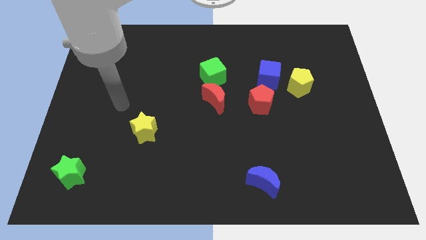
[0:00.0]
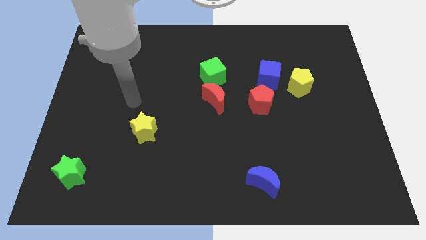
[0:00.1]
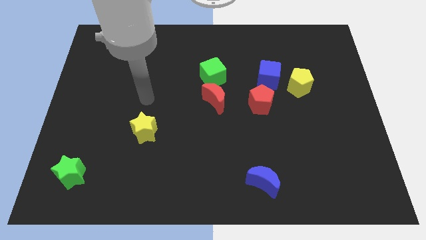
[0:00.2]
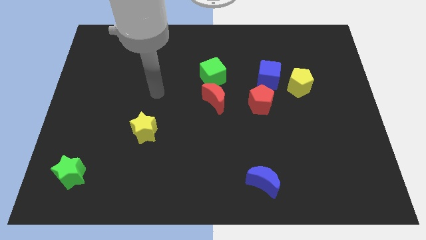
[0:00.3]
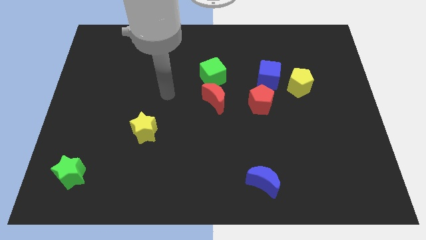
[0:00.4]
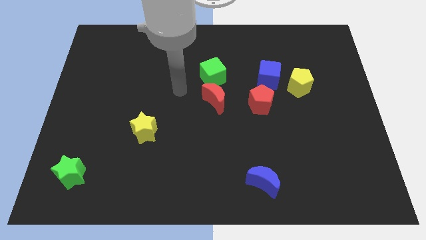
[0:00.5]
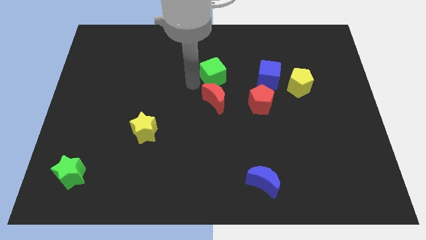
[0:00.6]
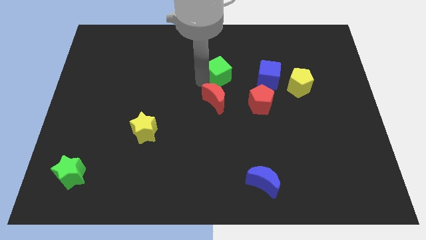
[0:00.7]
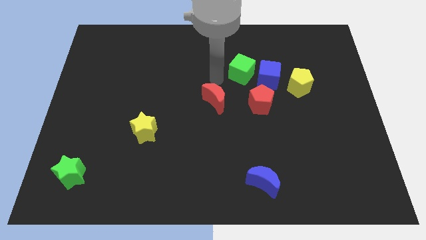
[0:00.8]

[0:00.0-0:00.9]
separate the red moon from the green cube

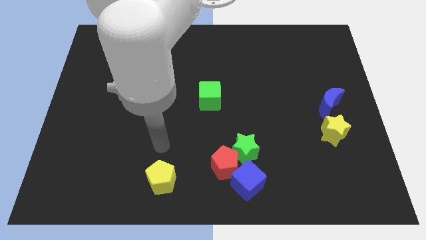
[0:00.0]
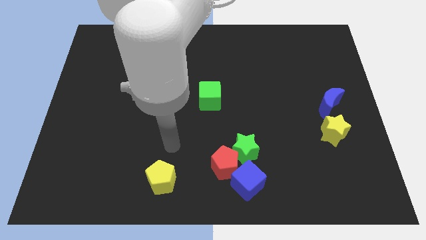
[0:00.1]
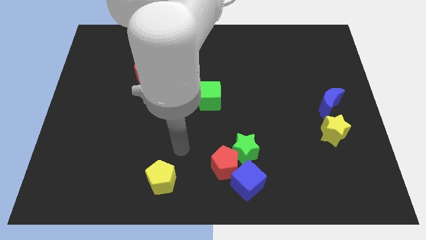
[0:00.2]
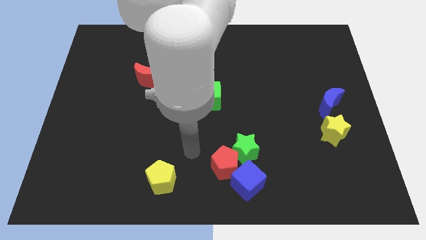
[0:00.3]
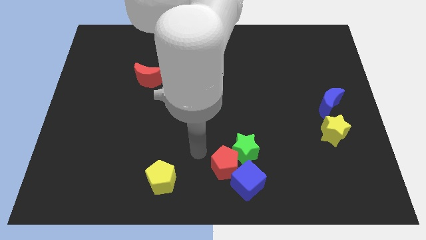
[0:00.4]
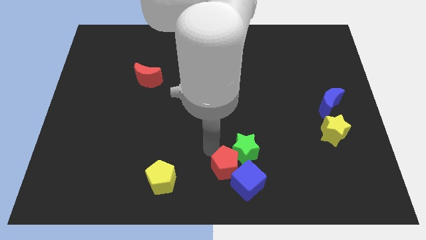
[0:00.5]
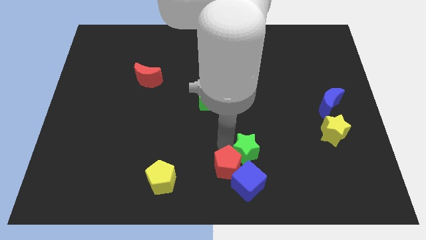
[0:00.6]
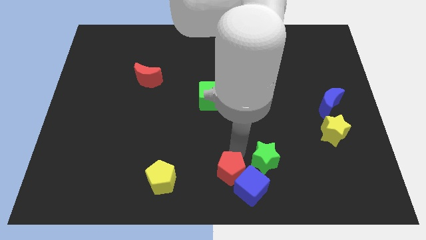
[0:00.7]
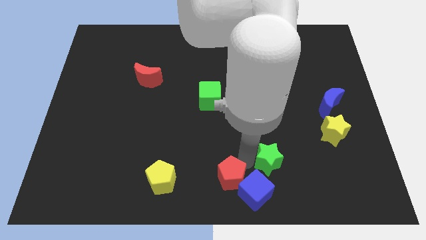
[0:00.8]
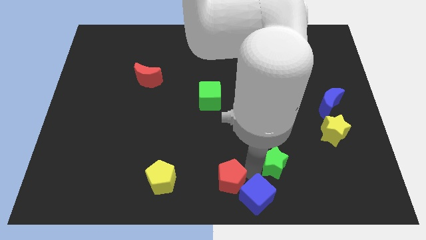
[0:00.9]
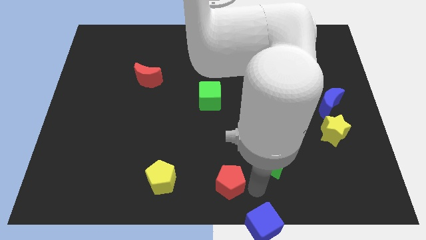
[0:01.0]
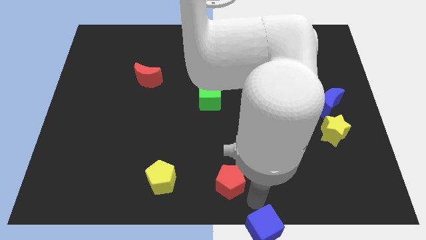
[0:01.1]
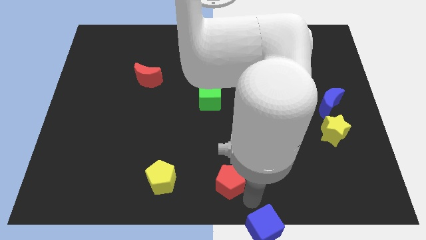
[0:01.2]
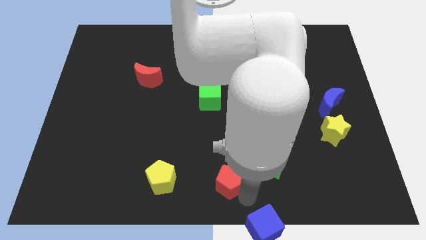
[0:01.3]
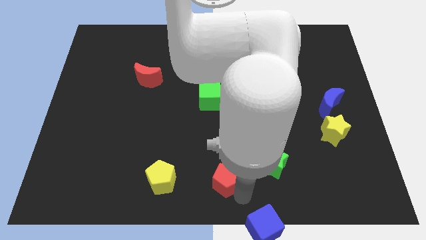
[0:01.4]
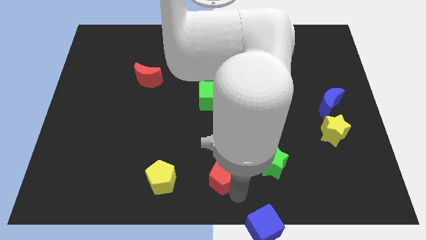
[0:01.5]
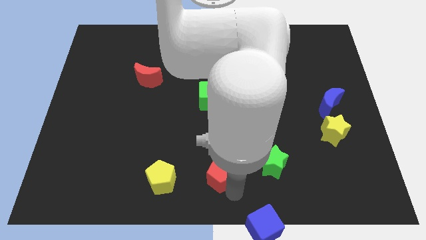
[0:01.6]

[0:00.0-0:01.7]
pull the red pentagon apart from the green star and blue cube

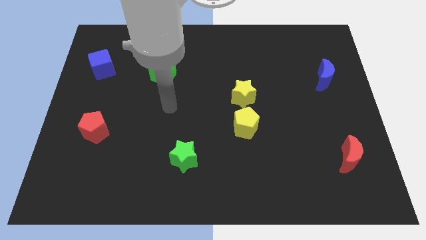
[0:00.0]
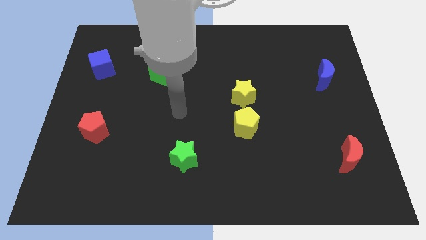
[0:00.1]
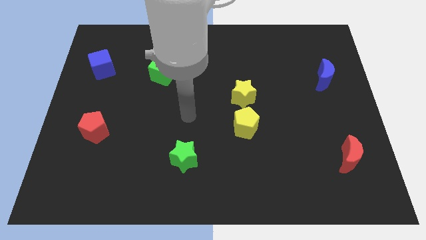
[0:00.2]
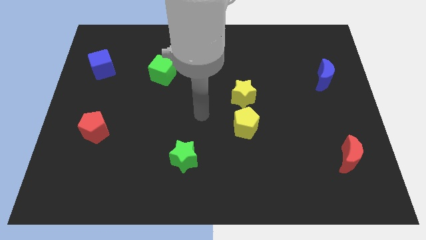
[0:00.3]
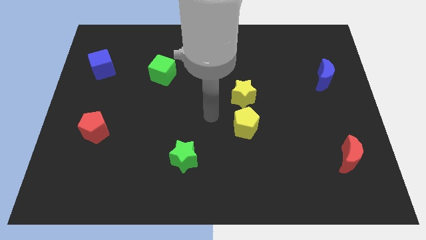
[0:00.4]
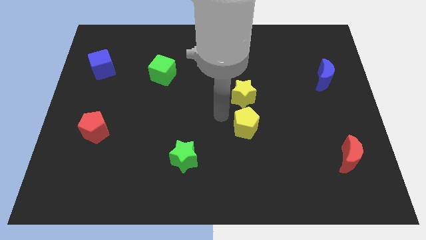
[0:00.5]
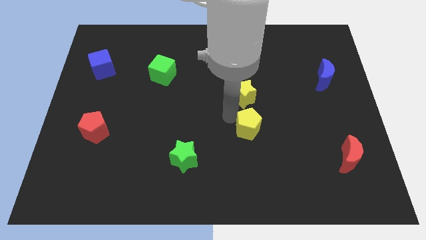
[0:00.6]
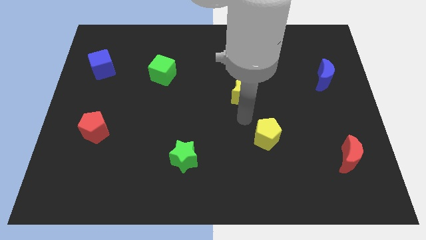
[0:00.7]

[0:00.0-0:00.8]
pull the yellow star apart from the yellow pentagon

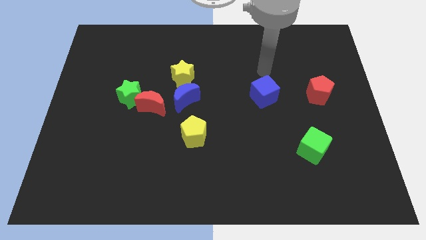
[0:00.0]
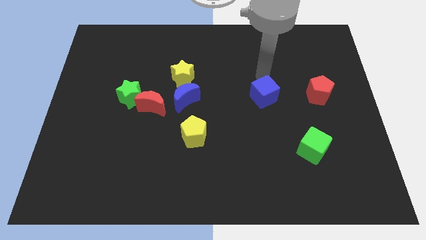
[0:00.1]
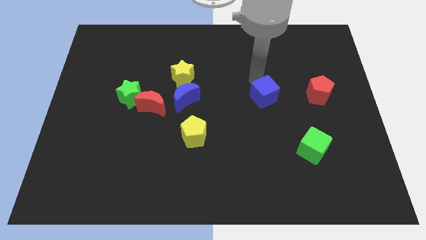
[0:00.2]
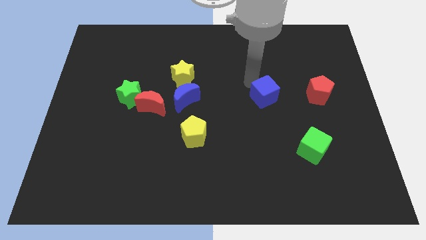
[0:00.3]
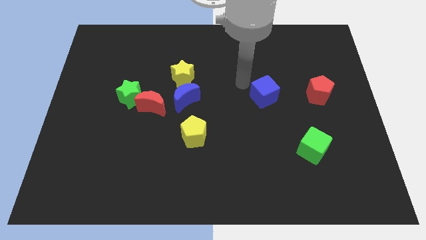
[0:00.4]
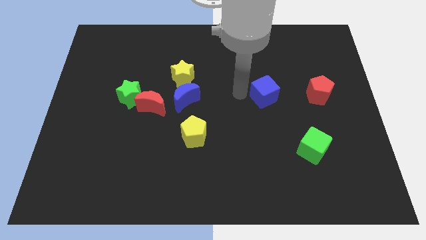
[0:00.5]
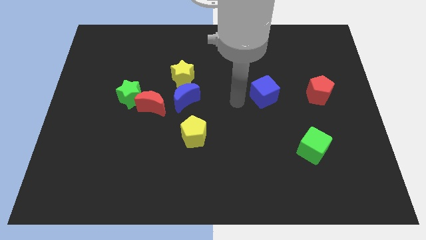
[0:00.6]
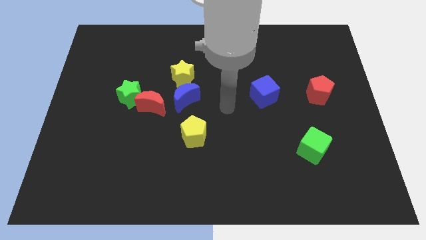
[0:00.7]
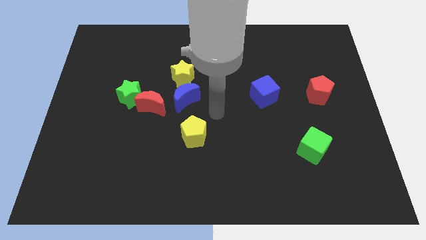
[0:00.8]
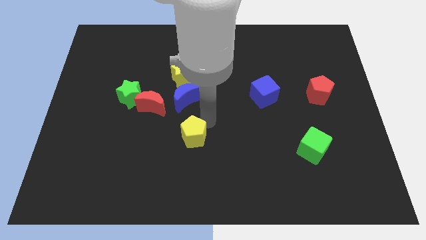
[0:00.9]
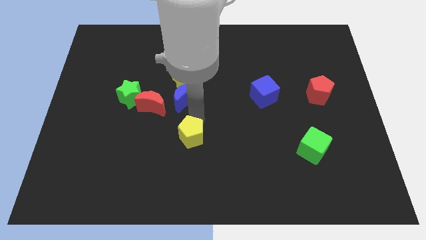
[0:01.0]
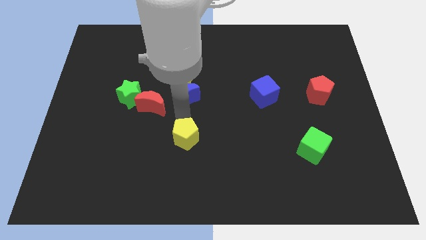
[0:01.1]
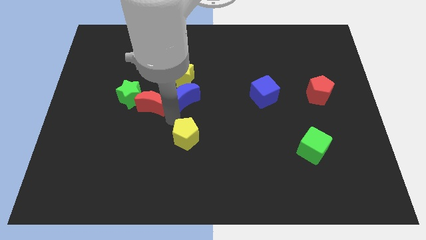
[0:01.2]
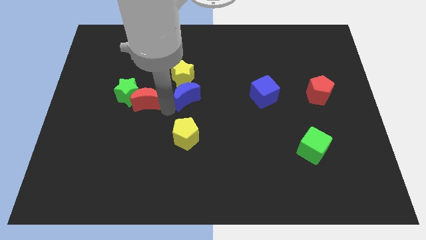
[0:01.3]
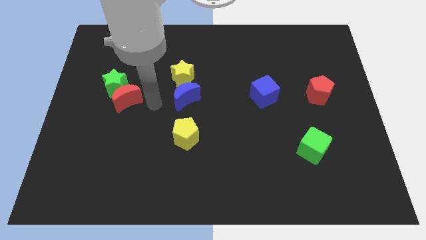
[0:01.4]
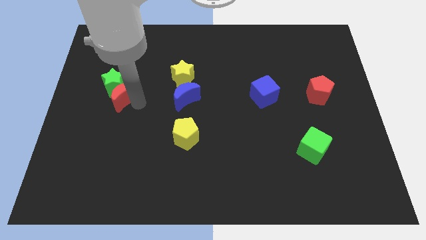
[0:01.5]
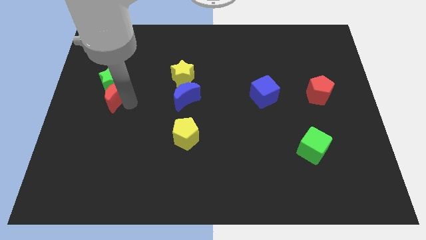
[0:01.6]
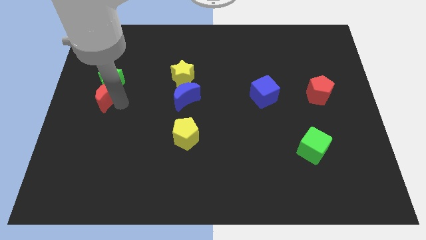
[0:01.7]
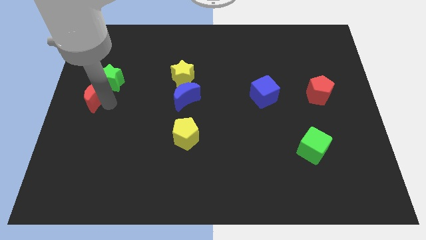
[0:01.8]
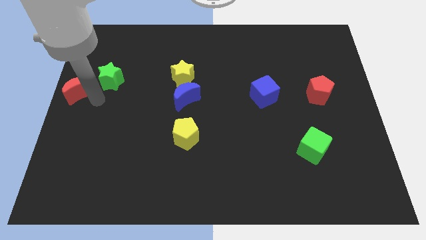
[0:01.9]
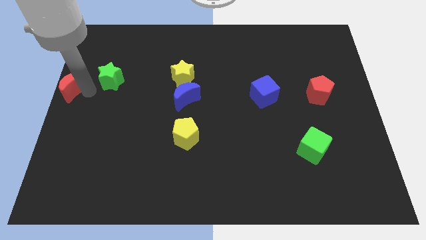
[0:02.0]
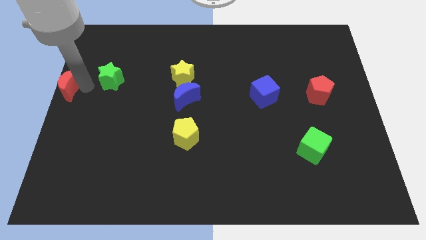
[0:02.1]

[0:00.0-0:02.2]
separate the green star from the red moon

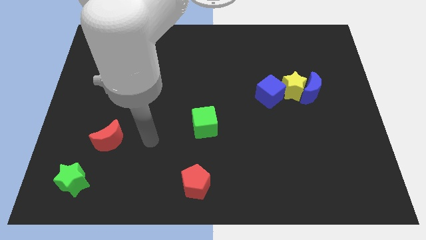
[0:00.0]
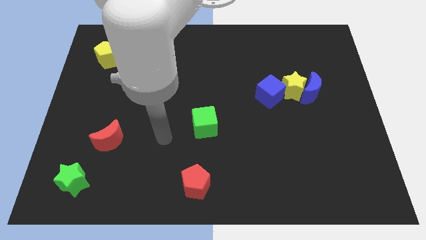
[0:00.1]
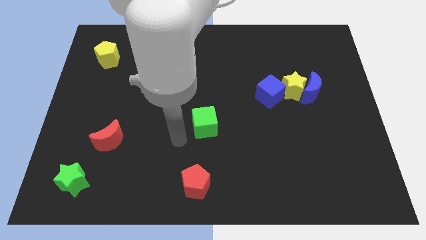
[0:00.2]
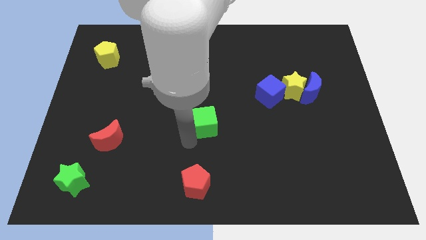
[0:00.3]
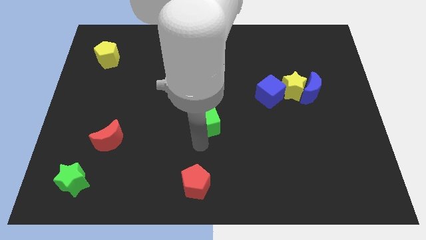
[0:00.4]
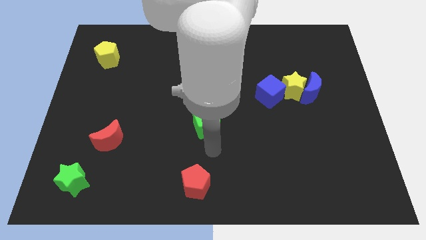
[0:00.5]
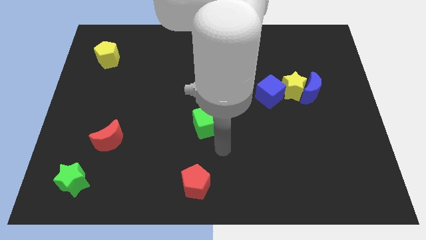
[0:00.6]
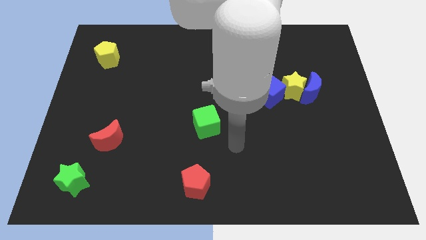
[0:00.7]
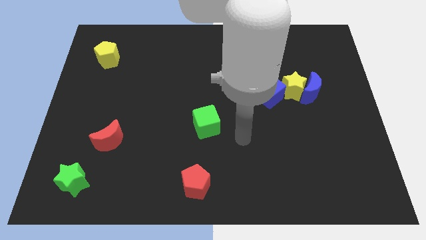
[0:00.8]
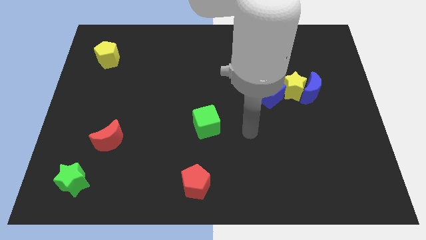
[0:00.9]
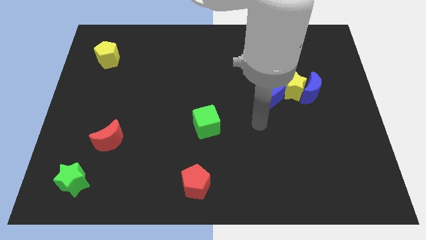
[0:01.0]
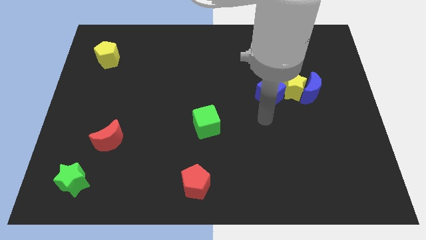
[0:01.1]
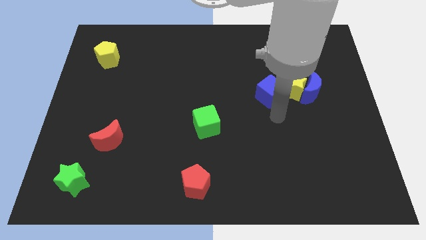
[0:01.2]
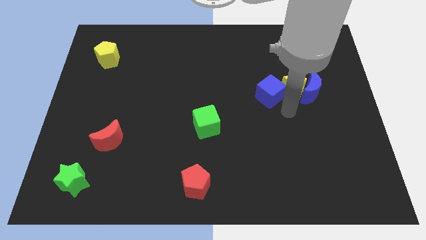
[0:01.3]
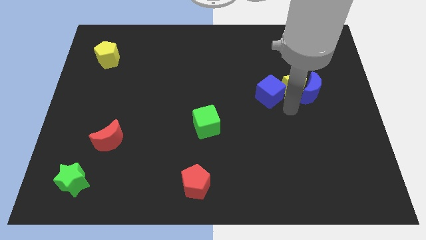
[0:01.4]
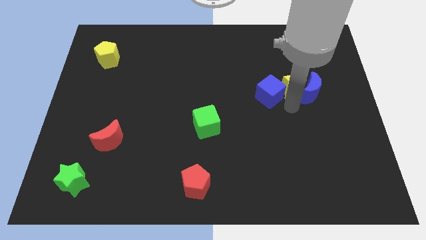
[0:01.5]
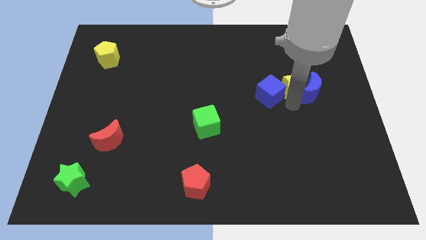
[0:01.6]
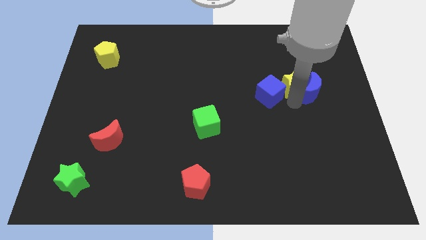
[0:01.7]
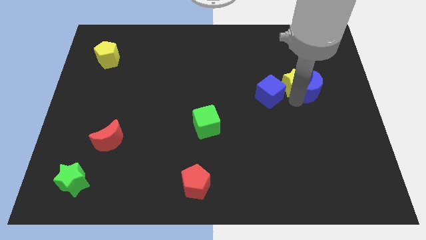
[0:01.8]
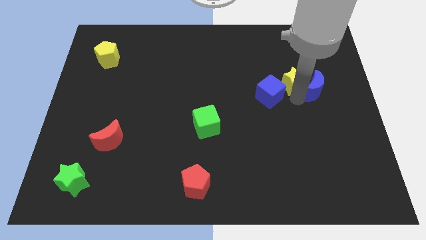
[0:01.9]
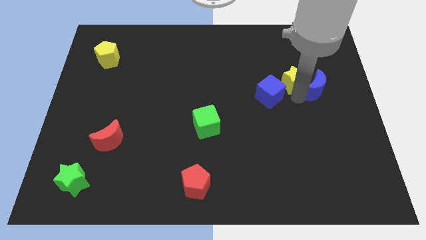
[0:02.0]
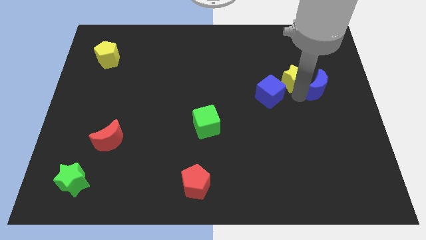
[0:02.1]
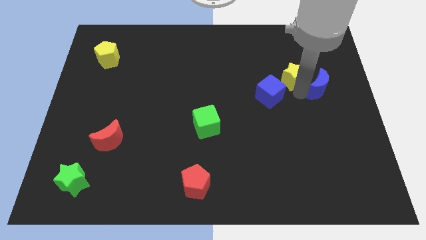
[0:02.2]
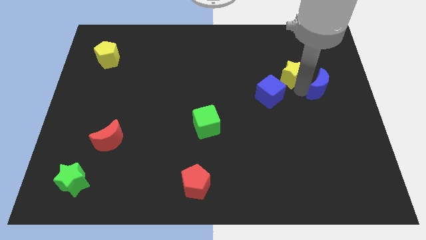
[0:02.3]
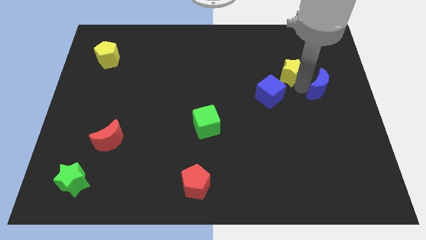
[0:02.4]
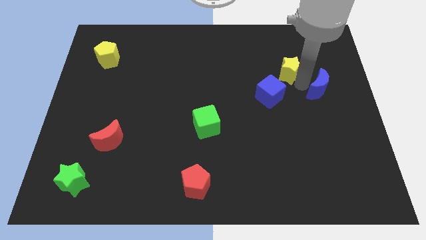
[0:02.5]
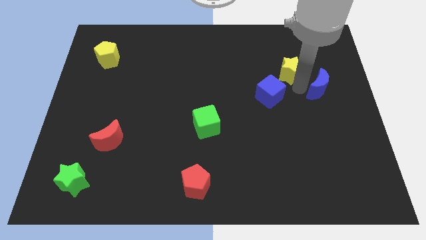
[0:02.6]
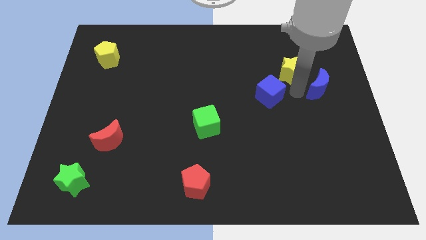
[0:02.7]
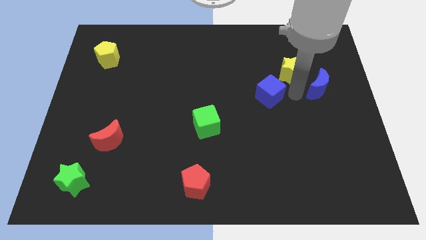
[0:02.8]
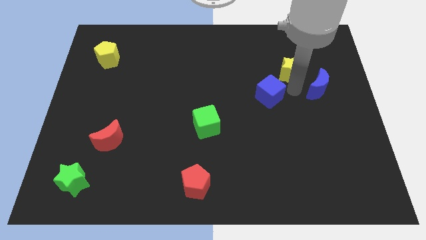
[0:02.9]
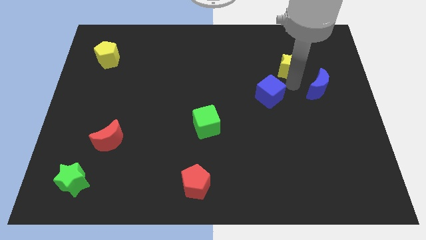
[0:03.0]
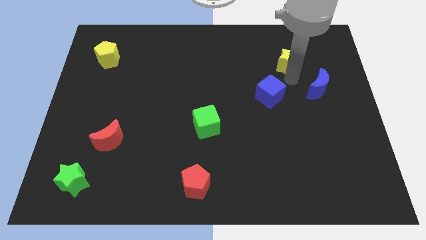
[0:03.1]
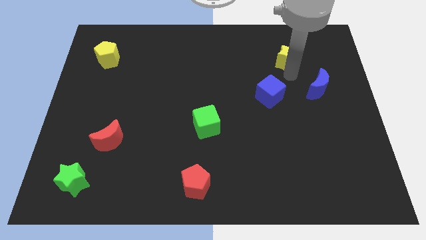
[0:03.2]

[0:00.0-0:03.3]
pull the yellow star apart from the blue moon and blue cube

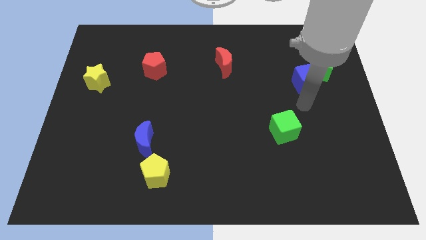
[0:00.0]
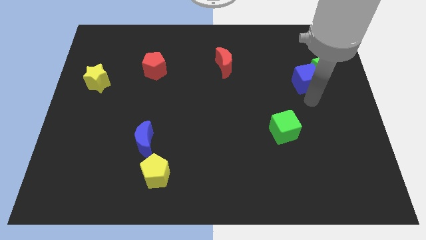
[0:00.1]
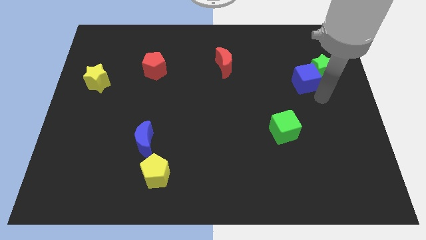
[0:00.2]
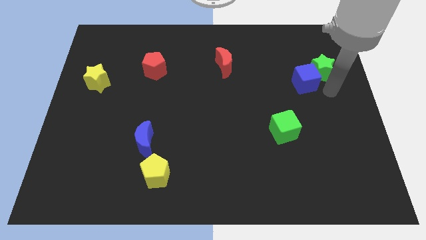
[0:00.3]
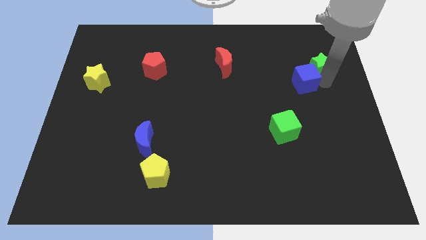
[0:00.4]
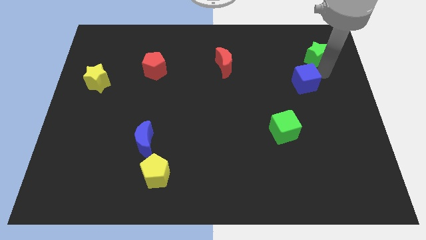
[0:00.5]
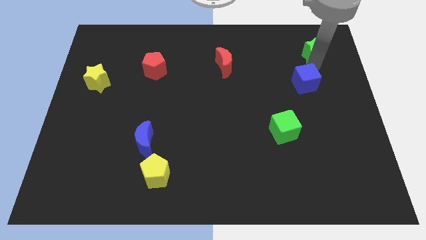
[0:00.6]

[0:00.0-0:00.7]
separate the blue cube from the green star
